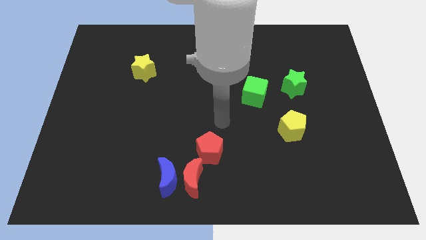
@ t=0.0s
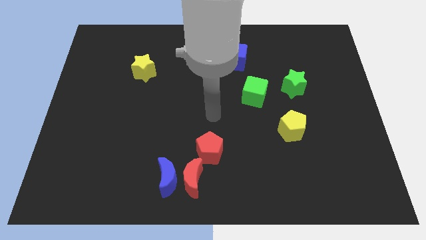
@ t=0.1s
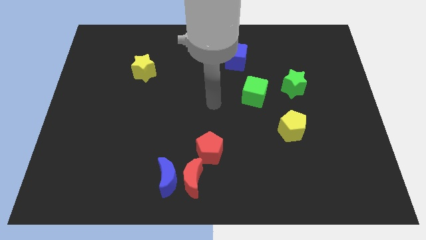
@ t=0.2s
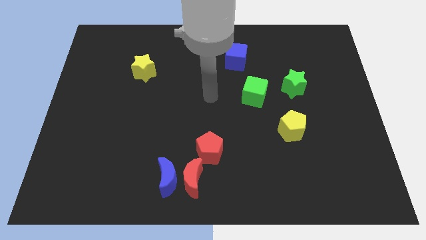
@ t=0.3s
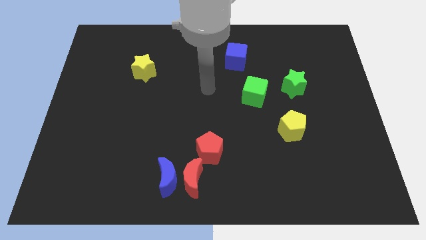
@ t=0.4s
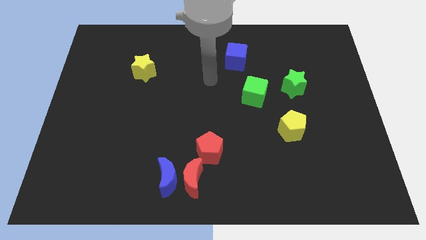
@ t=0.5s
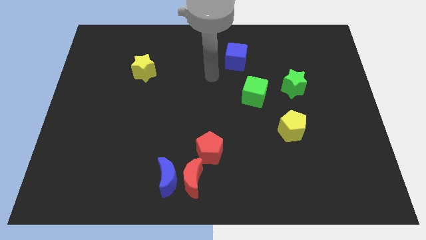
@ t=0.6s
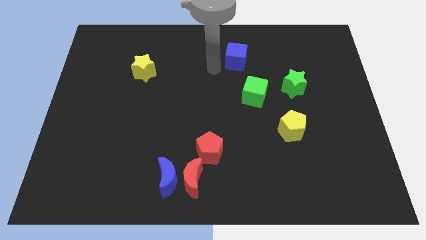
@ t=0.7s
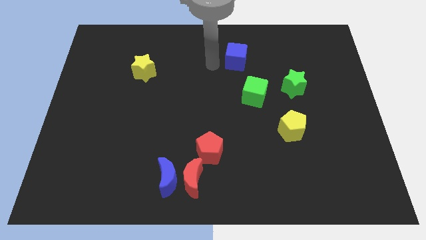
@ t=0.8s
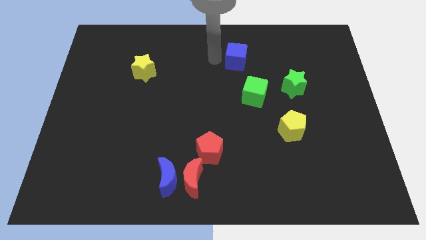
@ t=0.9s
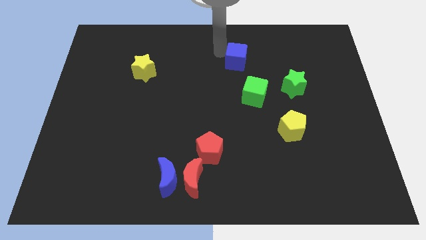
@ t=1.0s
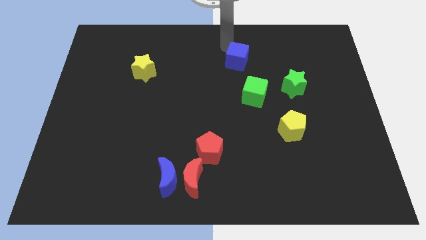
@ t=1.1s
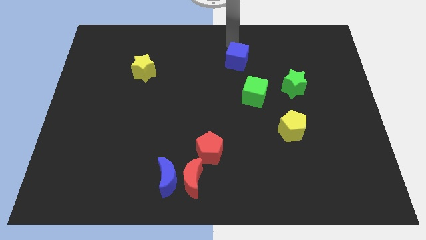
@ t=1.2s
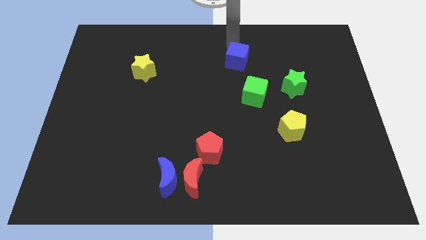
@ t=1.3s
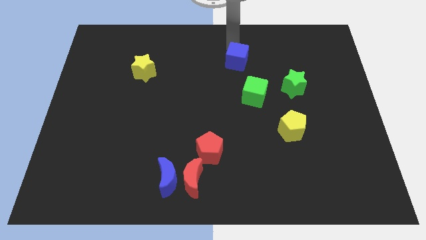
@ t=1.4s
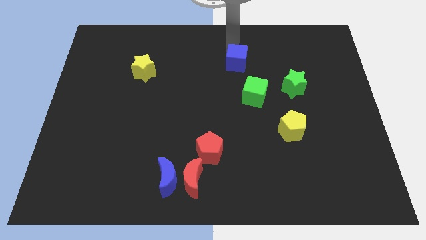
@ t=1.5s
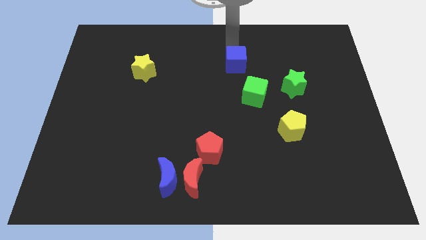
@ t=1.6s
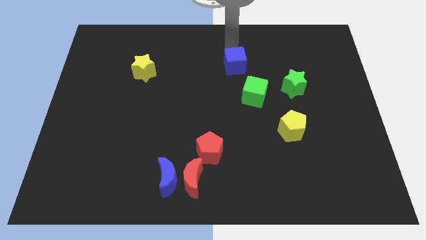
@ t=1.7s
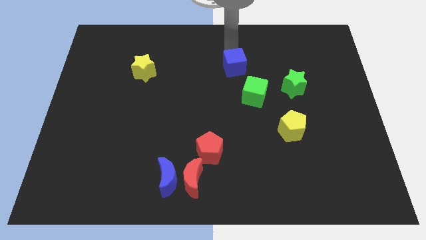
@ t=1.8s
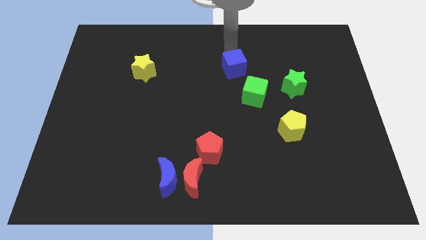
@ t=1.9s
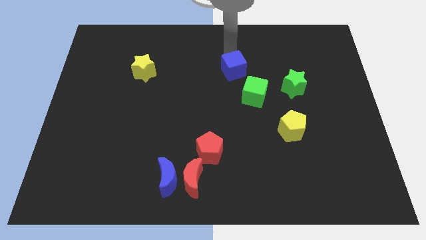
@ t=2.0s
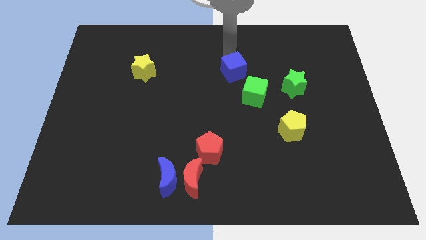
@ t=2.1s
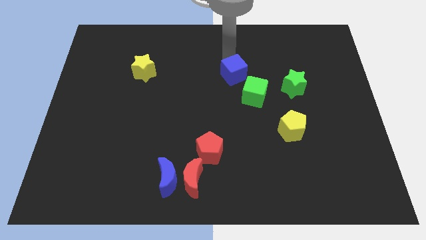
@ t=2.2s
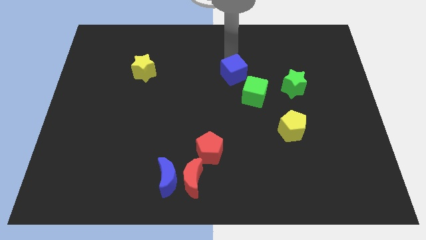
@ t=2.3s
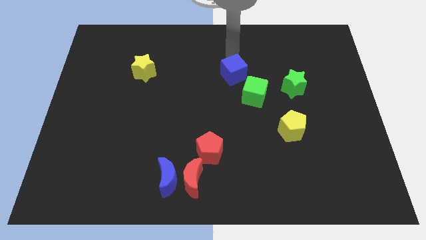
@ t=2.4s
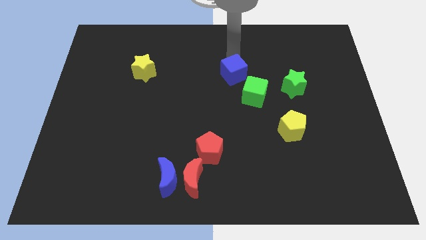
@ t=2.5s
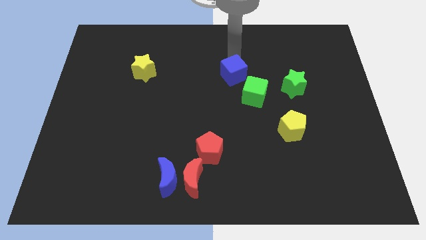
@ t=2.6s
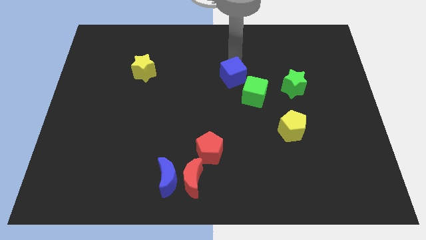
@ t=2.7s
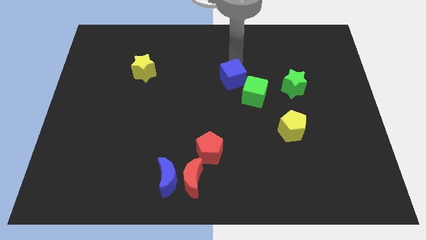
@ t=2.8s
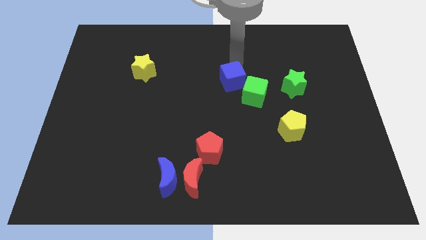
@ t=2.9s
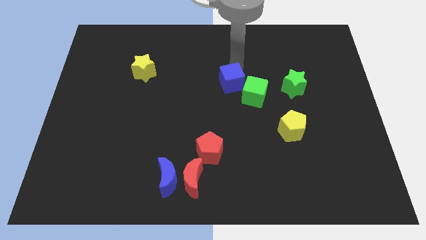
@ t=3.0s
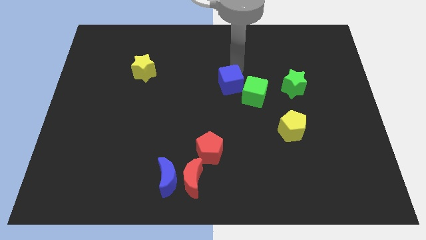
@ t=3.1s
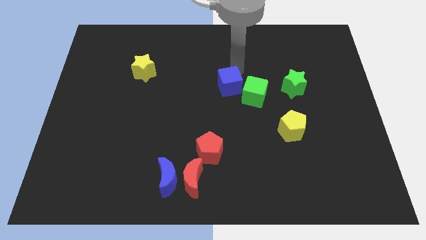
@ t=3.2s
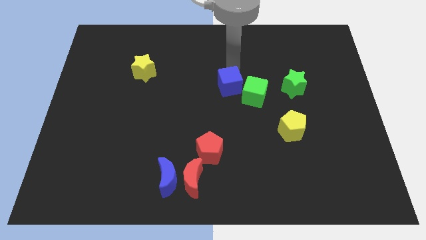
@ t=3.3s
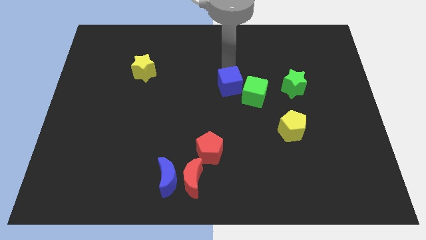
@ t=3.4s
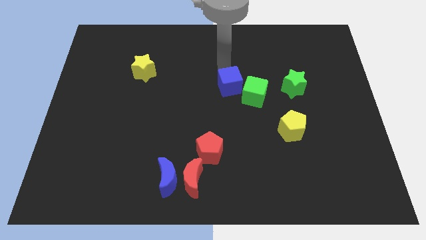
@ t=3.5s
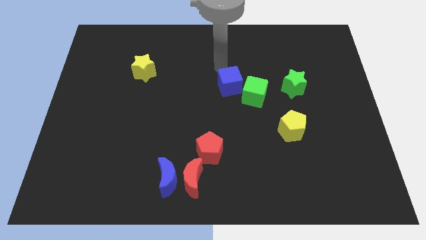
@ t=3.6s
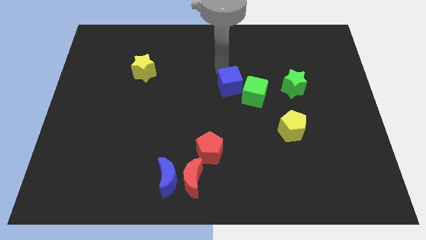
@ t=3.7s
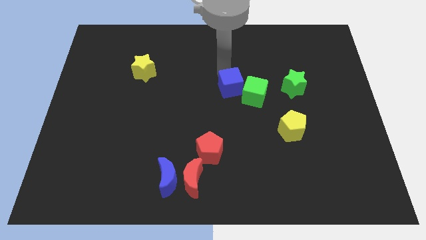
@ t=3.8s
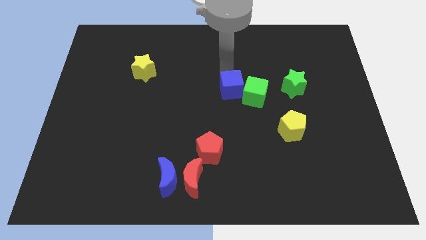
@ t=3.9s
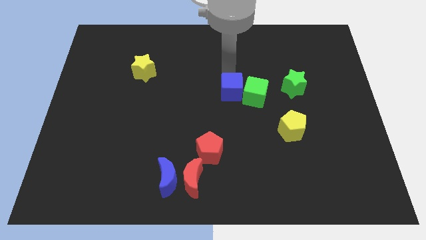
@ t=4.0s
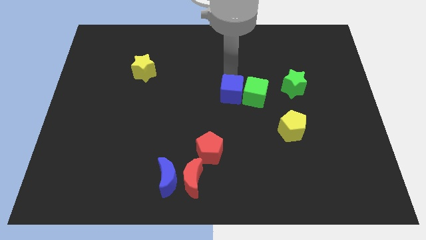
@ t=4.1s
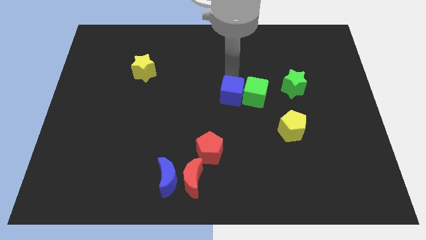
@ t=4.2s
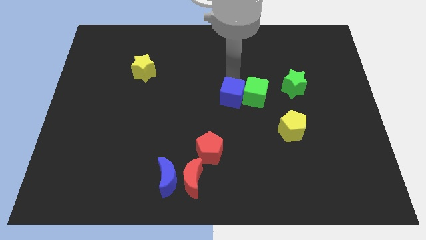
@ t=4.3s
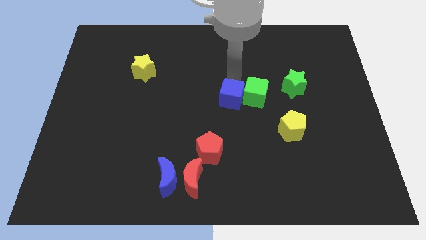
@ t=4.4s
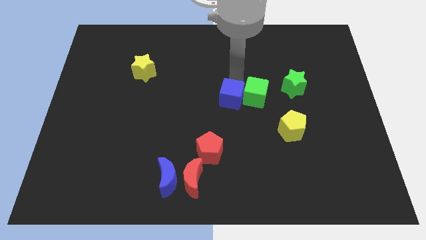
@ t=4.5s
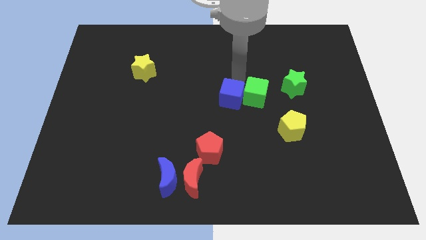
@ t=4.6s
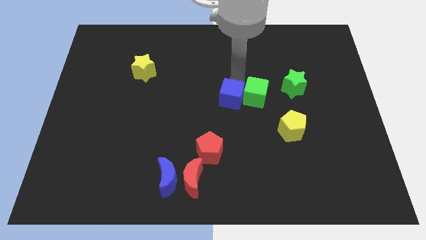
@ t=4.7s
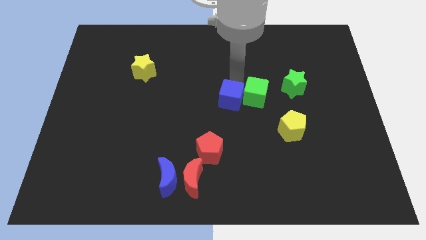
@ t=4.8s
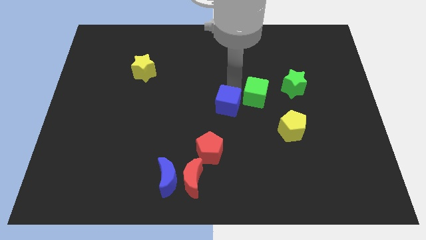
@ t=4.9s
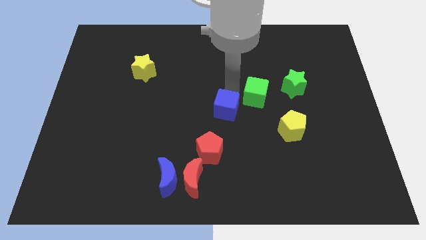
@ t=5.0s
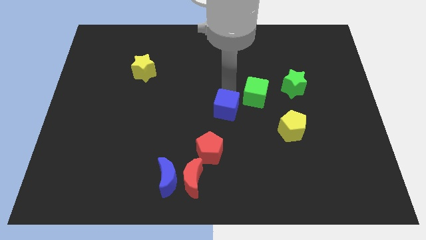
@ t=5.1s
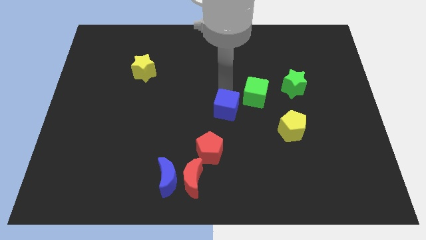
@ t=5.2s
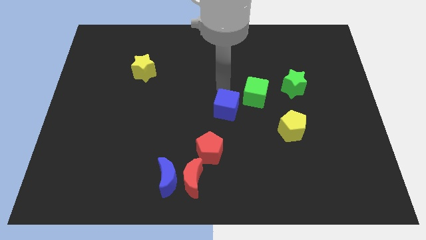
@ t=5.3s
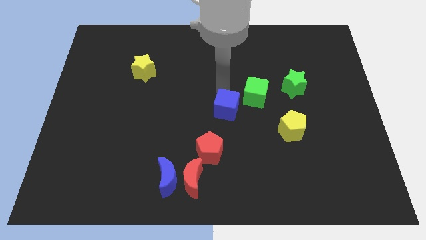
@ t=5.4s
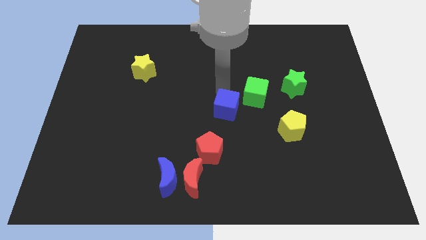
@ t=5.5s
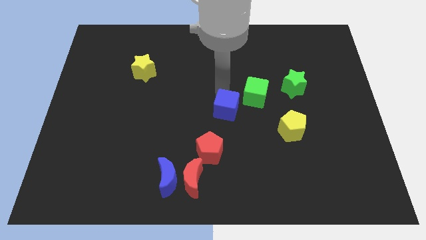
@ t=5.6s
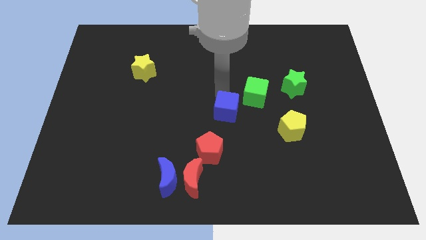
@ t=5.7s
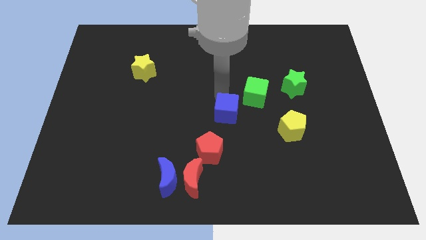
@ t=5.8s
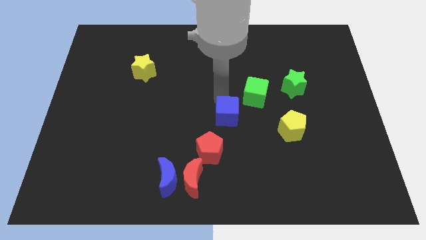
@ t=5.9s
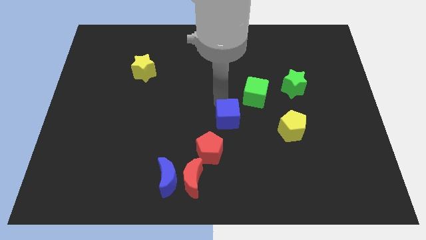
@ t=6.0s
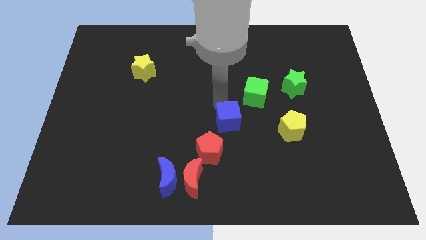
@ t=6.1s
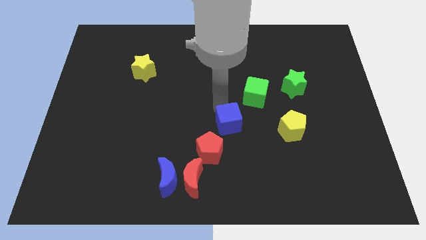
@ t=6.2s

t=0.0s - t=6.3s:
push the blue cube downwards

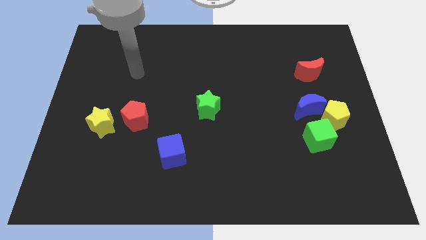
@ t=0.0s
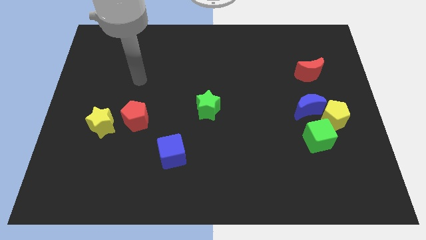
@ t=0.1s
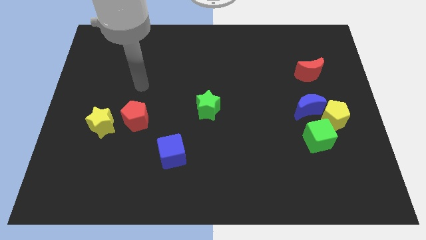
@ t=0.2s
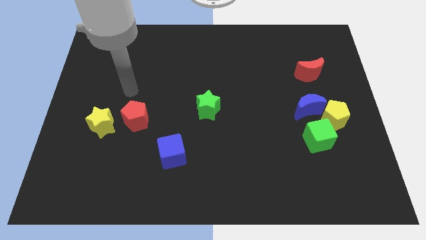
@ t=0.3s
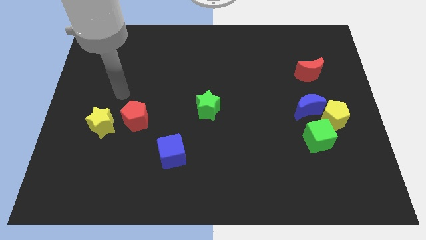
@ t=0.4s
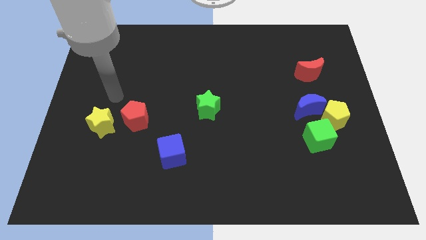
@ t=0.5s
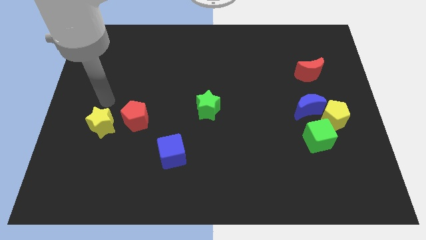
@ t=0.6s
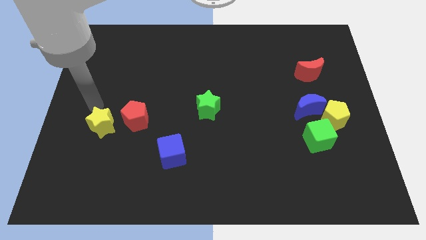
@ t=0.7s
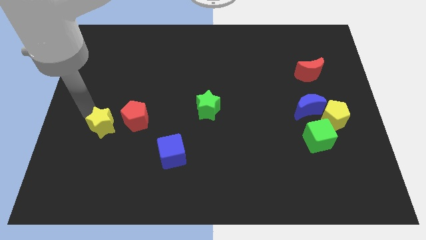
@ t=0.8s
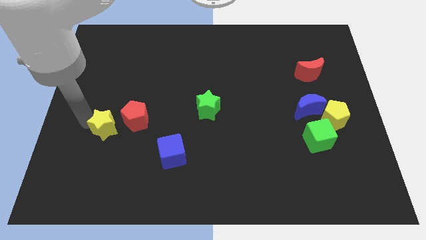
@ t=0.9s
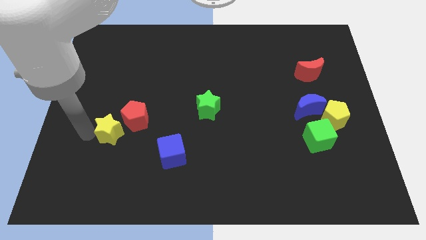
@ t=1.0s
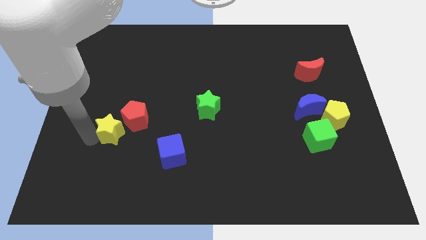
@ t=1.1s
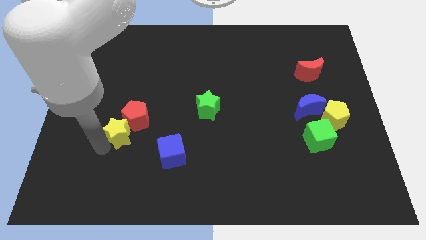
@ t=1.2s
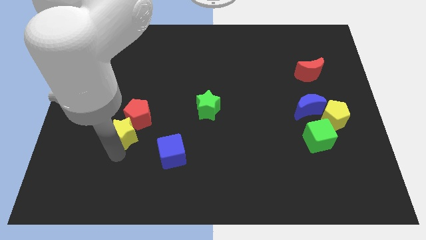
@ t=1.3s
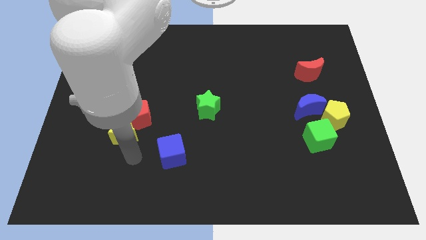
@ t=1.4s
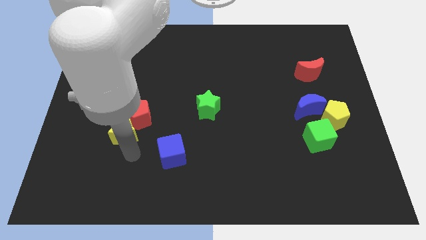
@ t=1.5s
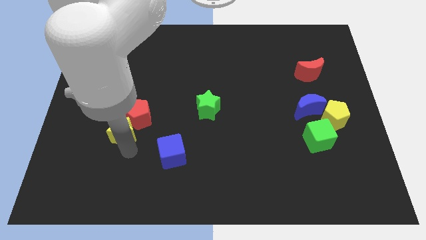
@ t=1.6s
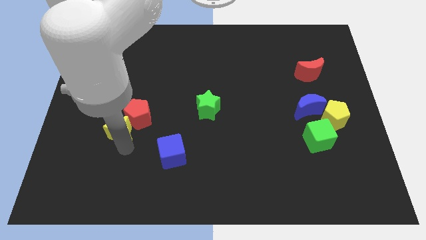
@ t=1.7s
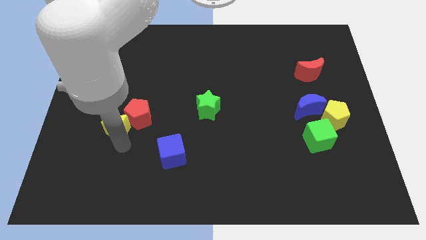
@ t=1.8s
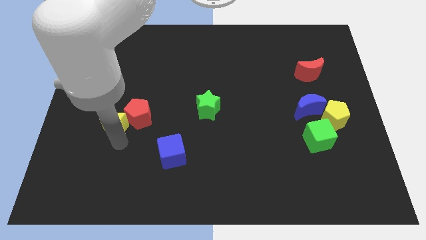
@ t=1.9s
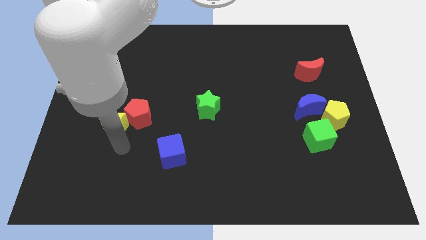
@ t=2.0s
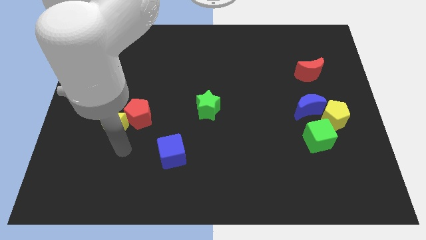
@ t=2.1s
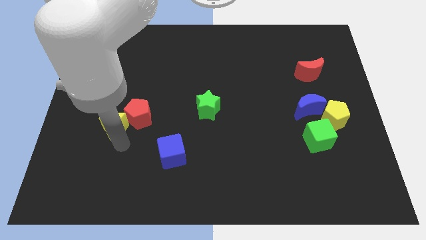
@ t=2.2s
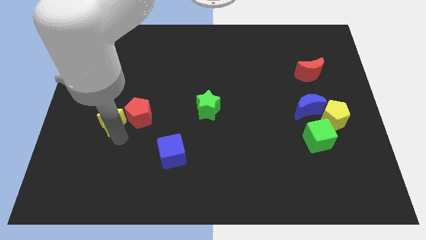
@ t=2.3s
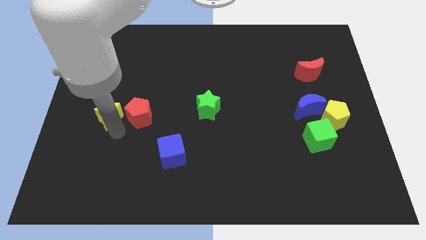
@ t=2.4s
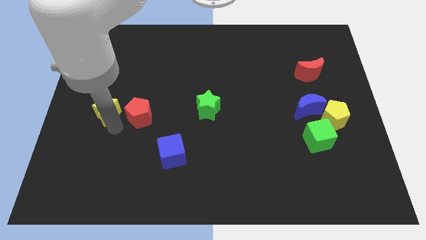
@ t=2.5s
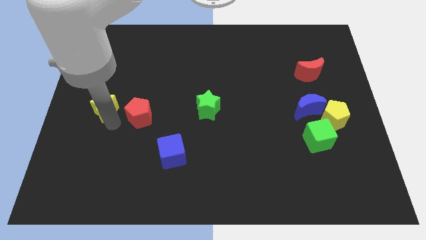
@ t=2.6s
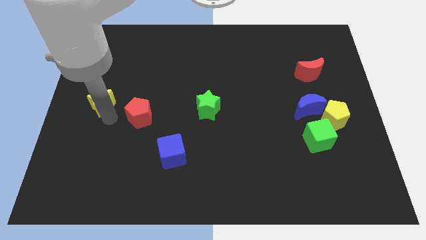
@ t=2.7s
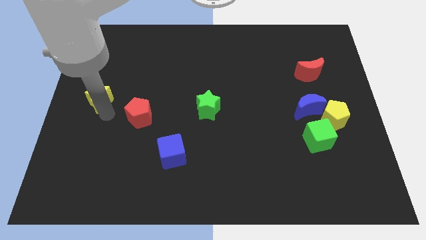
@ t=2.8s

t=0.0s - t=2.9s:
slightly push the yellow star upwards
